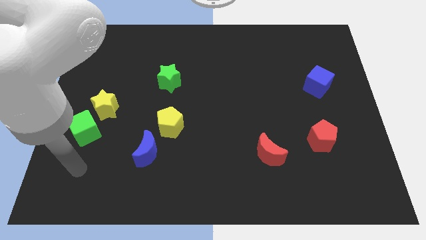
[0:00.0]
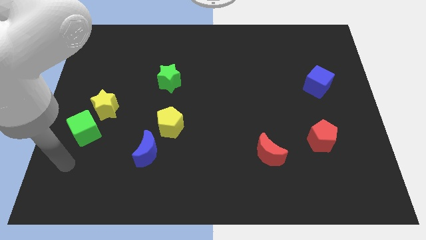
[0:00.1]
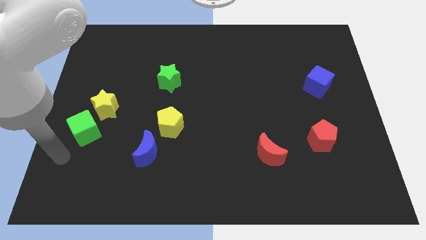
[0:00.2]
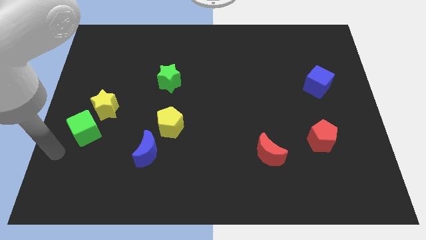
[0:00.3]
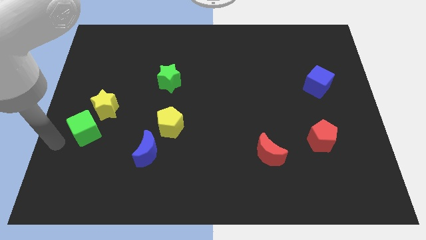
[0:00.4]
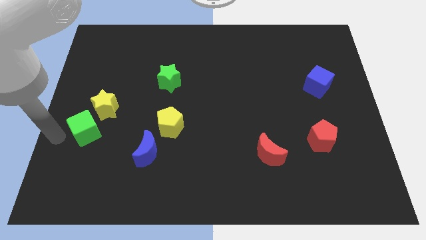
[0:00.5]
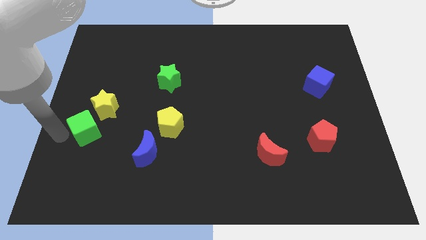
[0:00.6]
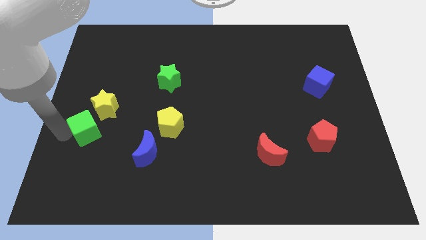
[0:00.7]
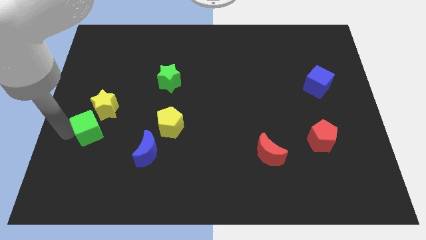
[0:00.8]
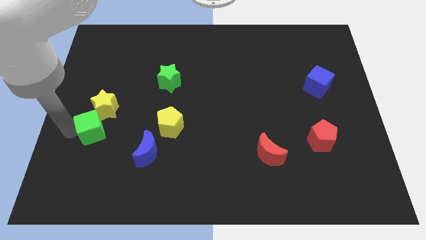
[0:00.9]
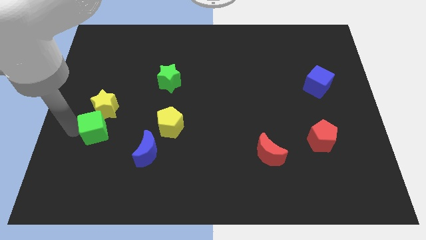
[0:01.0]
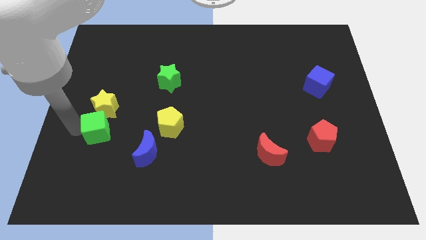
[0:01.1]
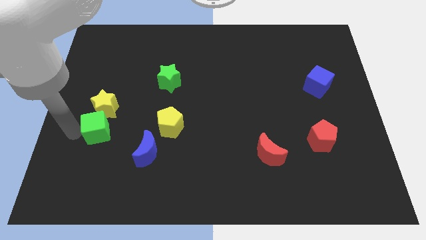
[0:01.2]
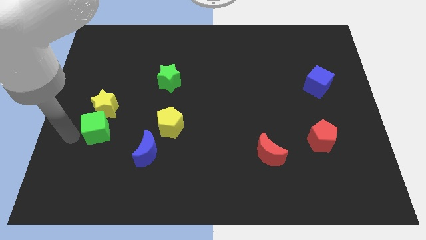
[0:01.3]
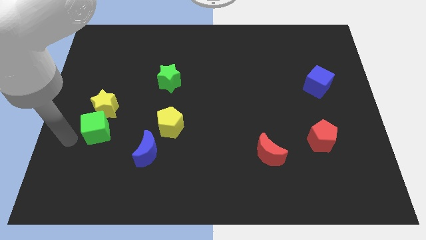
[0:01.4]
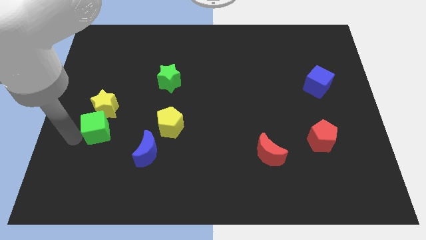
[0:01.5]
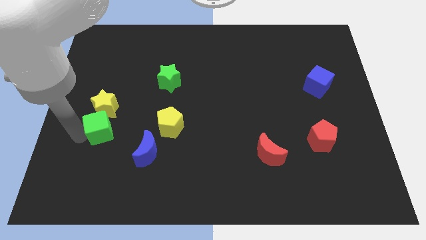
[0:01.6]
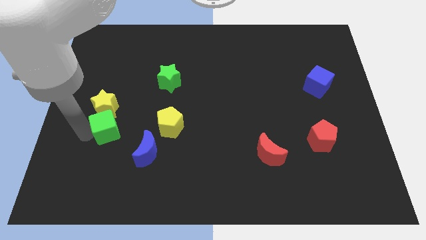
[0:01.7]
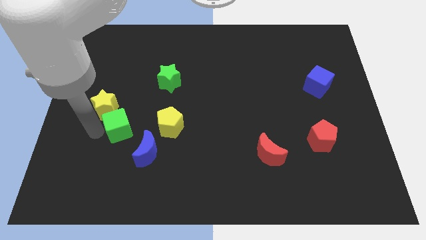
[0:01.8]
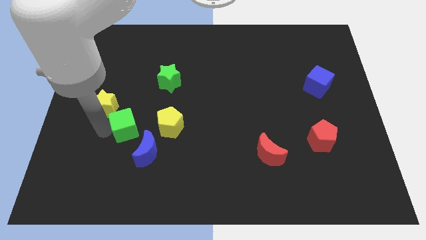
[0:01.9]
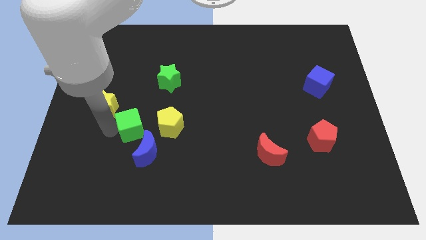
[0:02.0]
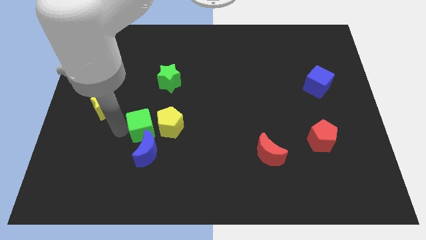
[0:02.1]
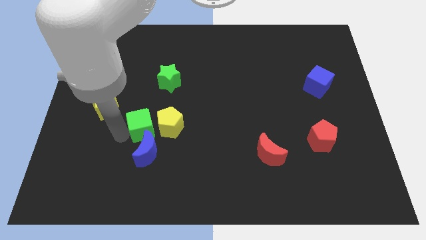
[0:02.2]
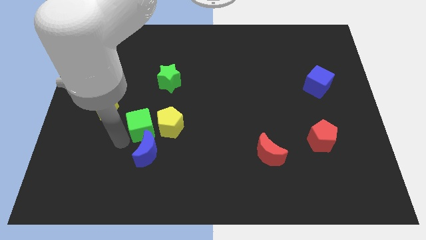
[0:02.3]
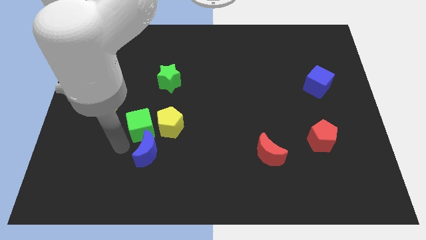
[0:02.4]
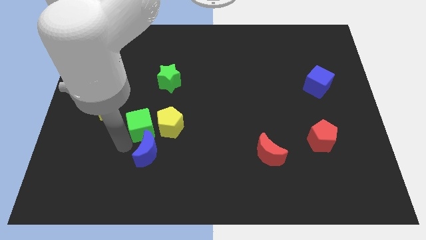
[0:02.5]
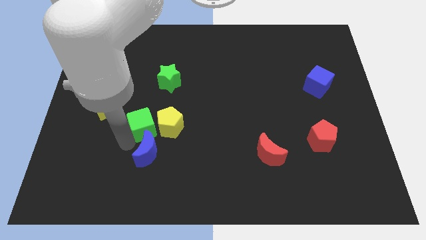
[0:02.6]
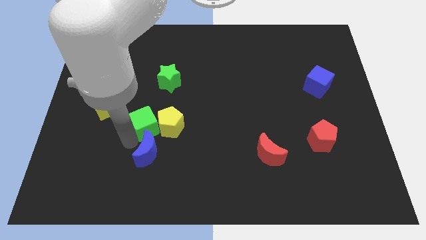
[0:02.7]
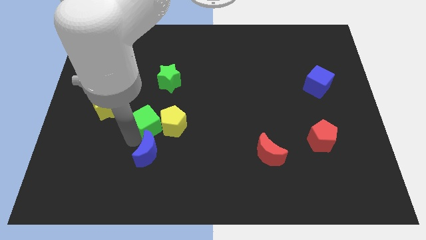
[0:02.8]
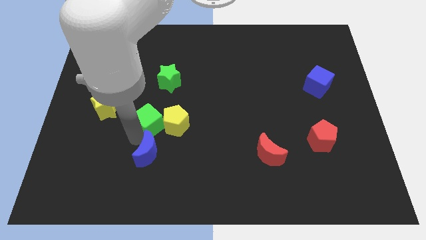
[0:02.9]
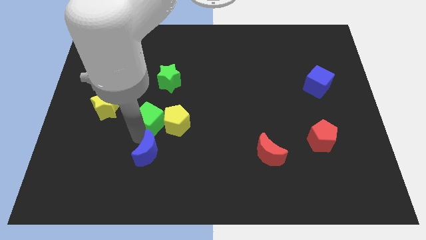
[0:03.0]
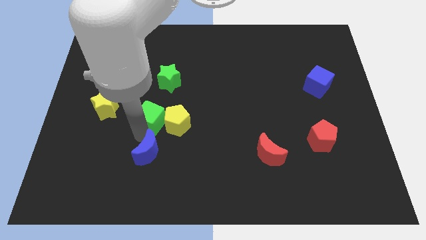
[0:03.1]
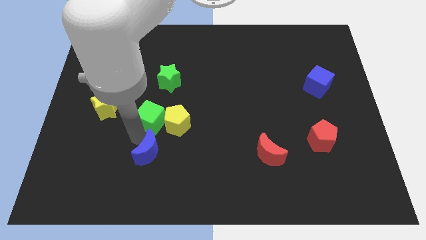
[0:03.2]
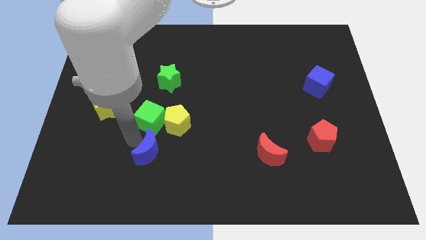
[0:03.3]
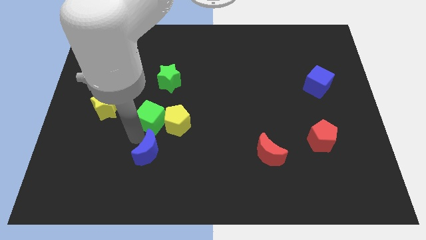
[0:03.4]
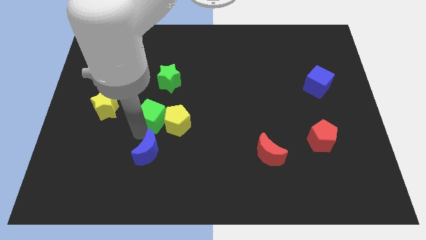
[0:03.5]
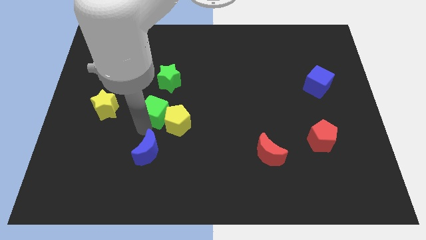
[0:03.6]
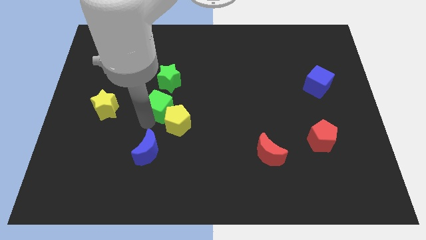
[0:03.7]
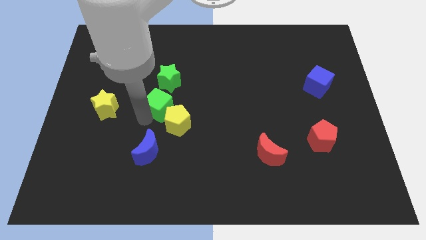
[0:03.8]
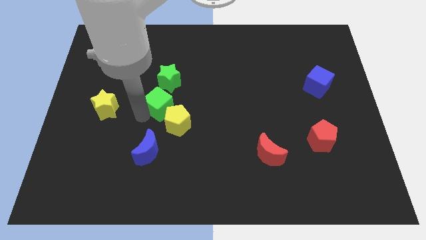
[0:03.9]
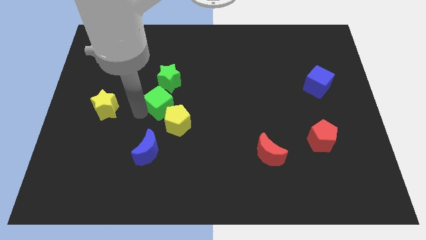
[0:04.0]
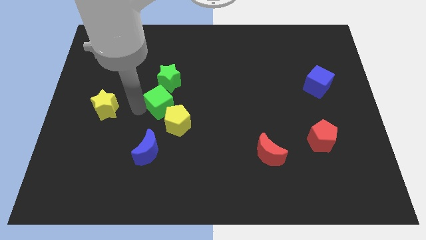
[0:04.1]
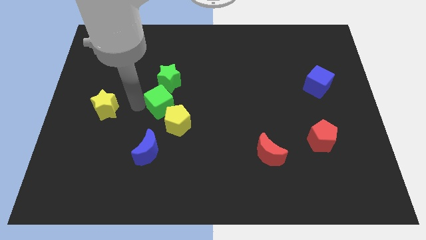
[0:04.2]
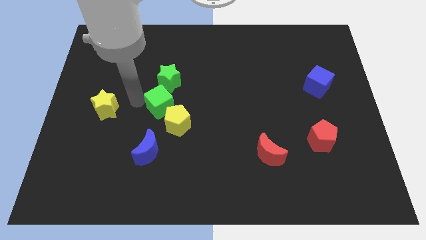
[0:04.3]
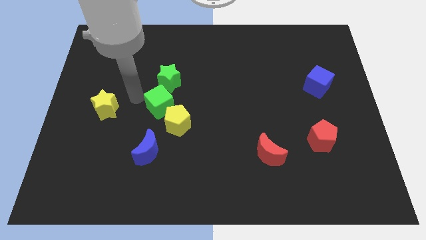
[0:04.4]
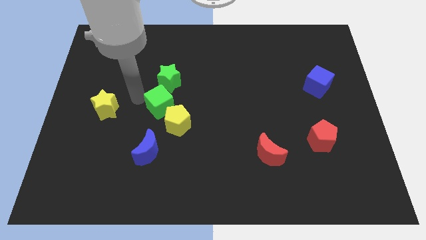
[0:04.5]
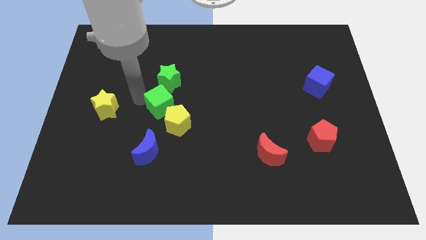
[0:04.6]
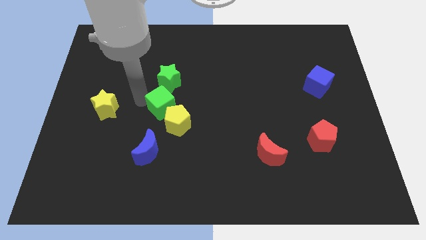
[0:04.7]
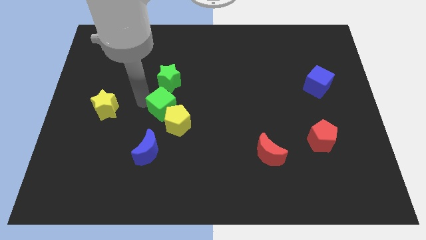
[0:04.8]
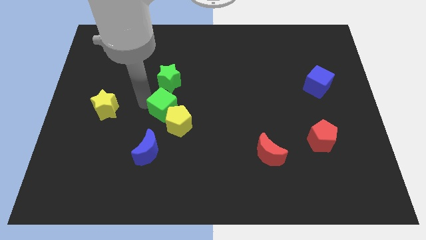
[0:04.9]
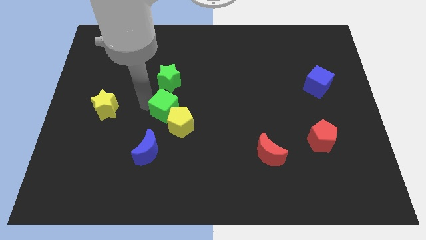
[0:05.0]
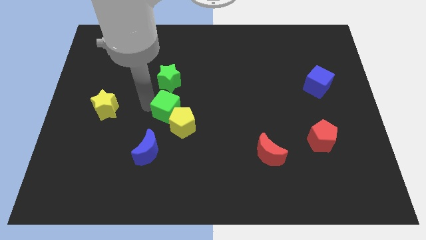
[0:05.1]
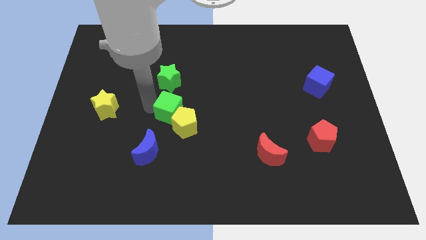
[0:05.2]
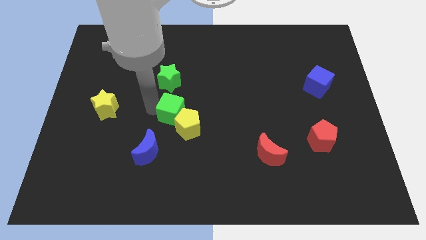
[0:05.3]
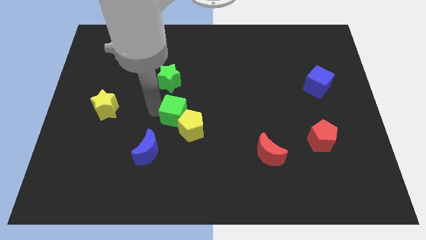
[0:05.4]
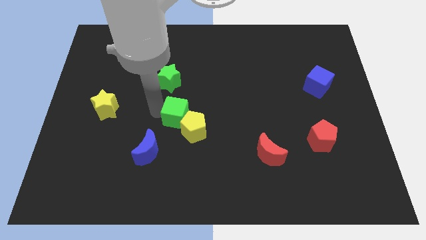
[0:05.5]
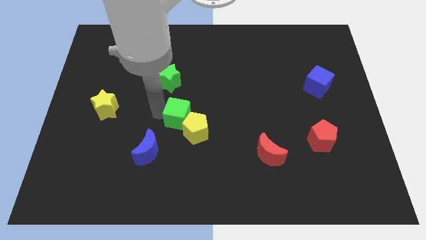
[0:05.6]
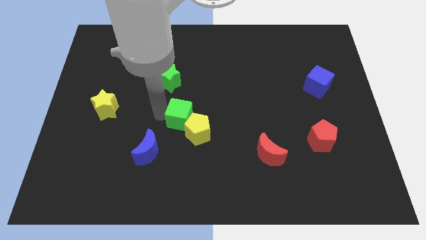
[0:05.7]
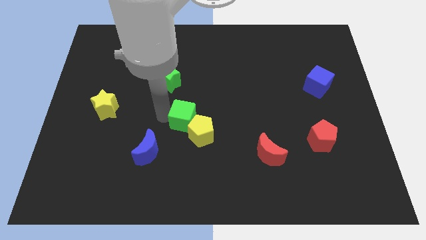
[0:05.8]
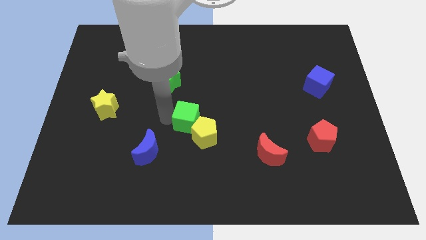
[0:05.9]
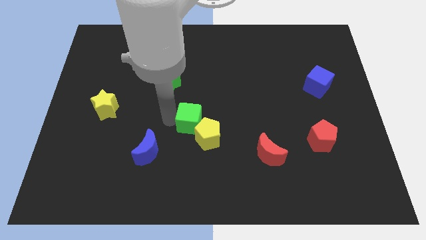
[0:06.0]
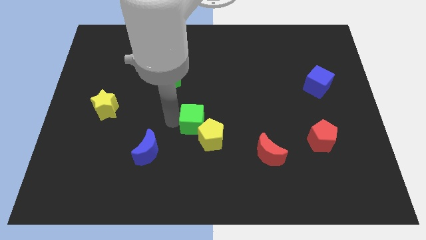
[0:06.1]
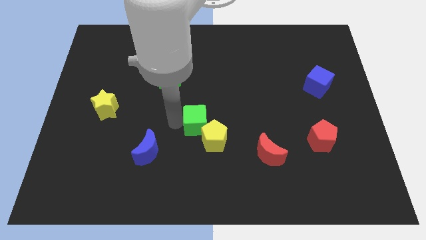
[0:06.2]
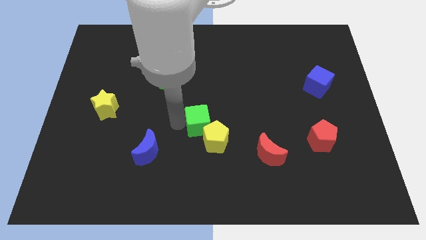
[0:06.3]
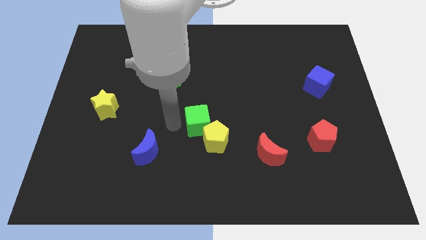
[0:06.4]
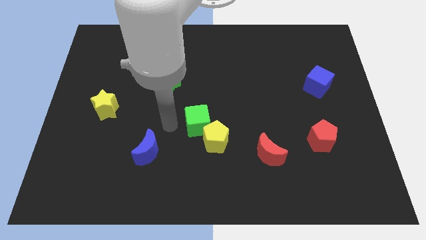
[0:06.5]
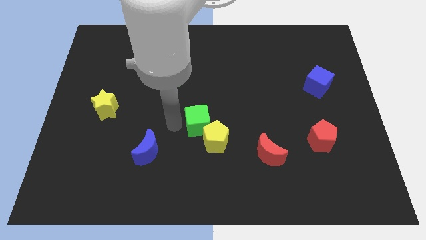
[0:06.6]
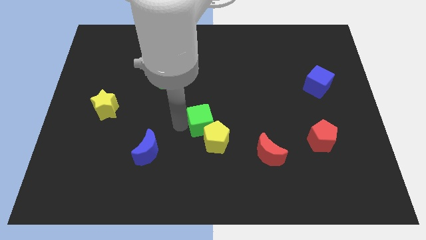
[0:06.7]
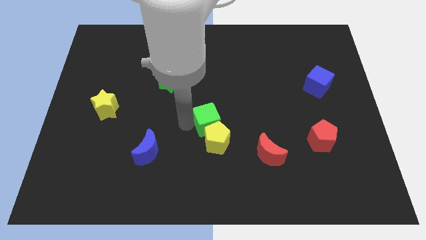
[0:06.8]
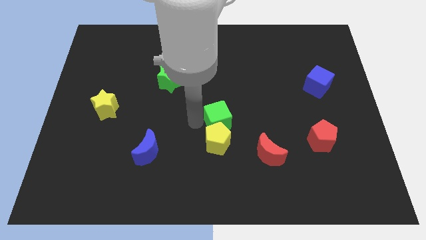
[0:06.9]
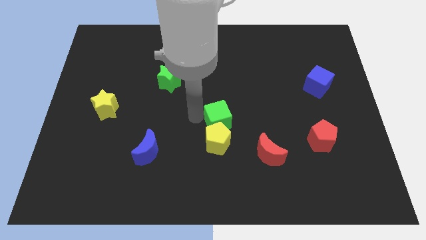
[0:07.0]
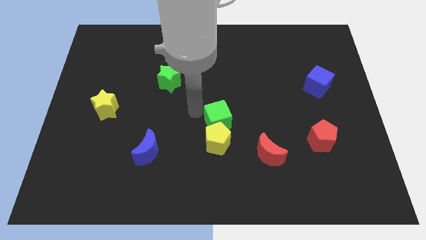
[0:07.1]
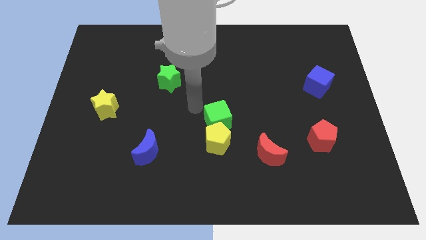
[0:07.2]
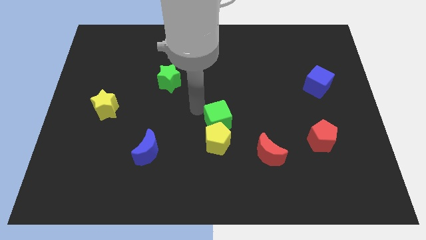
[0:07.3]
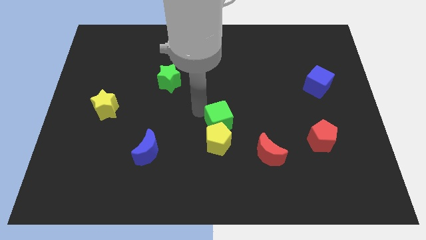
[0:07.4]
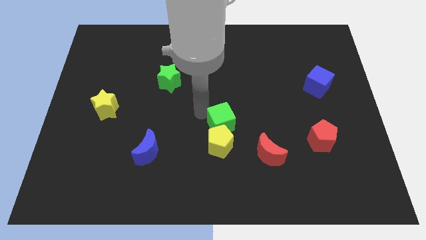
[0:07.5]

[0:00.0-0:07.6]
put the green cube diagonally up and to the left of the red moon
